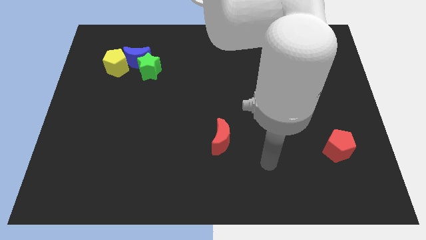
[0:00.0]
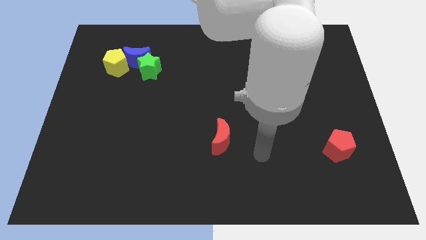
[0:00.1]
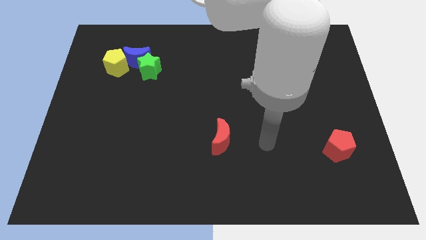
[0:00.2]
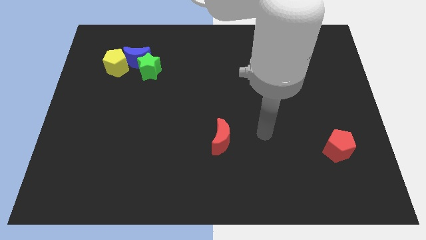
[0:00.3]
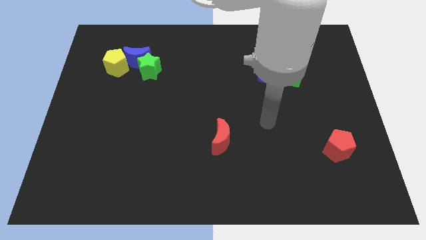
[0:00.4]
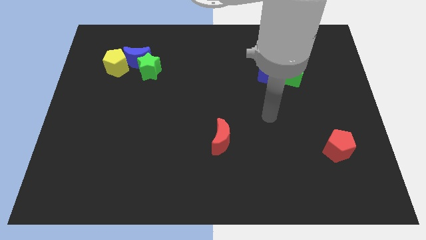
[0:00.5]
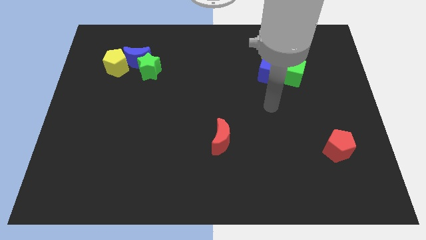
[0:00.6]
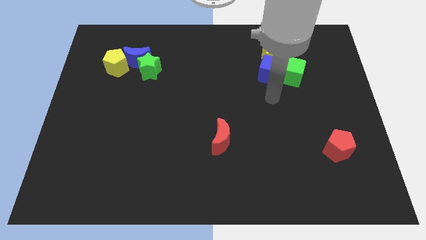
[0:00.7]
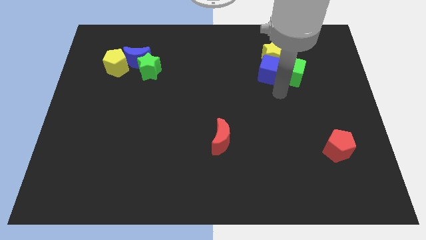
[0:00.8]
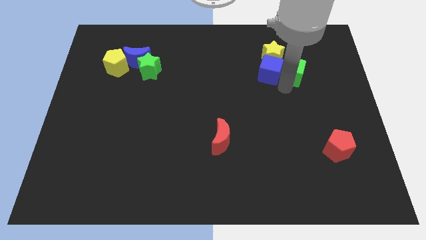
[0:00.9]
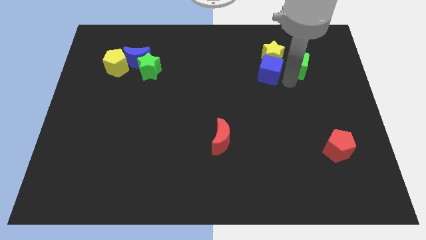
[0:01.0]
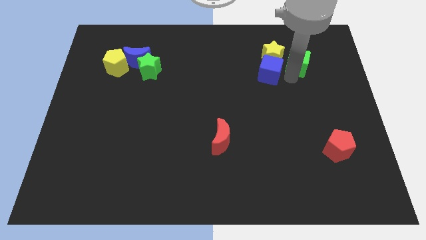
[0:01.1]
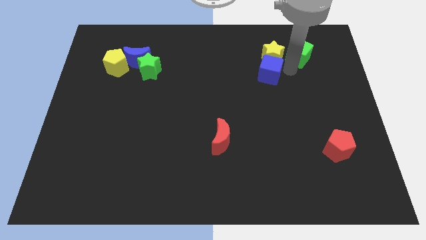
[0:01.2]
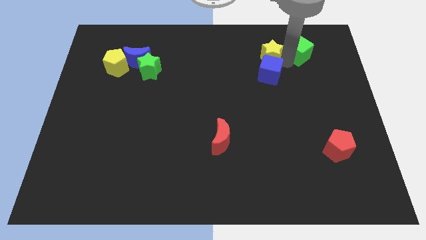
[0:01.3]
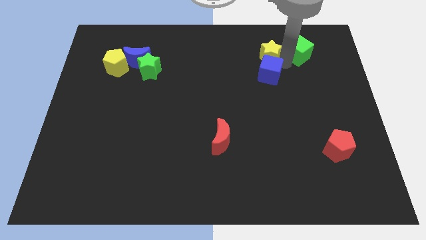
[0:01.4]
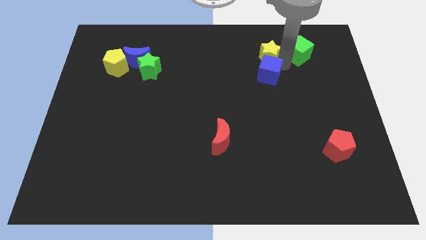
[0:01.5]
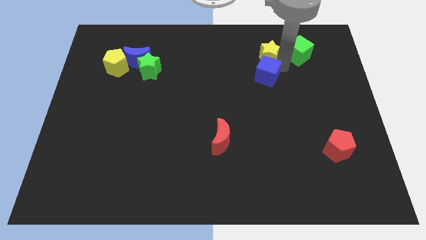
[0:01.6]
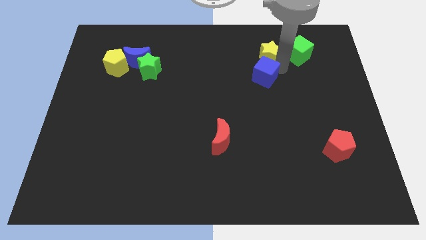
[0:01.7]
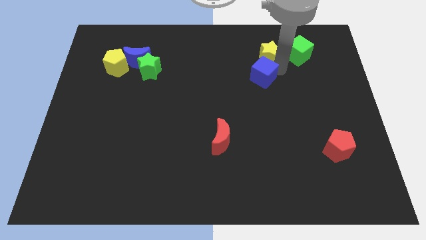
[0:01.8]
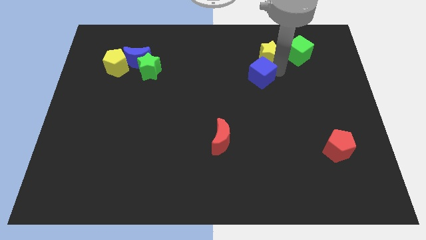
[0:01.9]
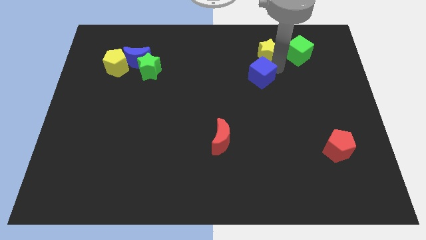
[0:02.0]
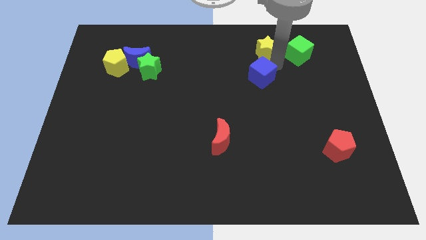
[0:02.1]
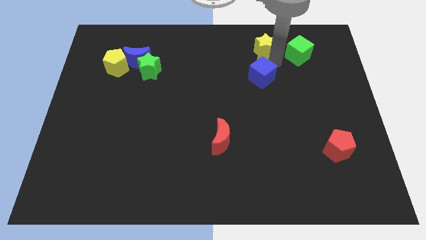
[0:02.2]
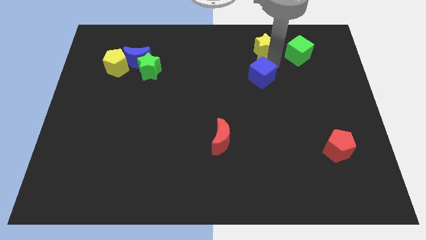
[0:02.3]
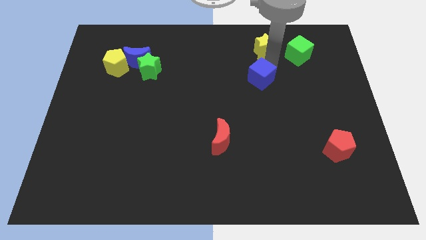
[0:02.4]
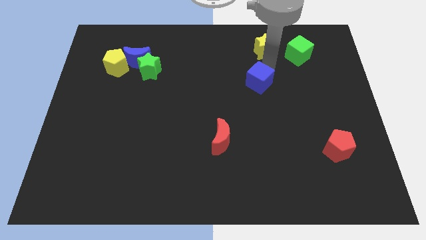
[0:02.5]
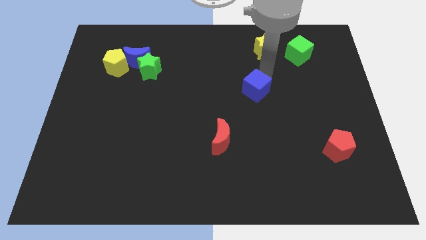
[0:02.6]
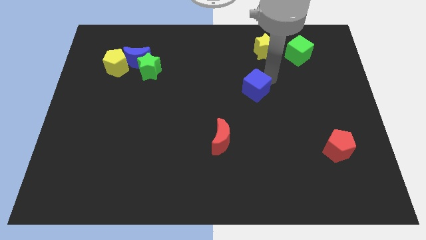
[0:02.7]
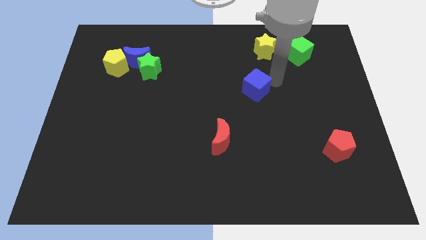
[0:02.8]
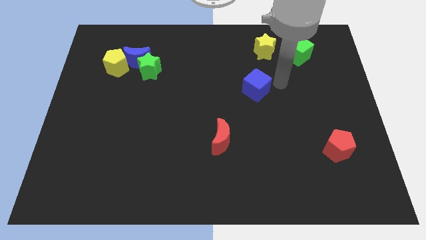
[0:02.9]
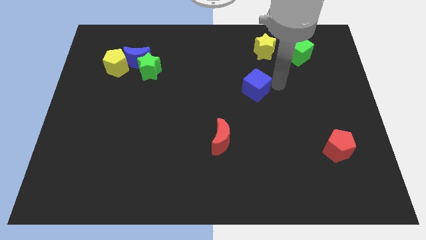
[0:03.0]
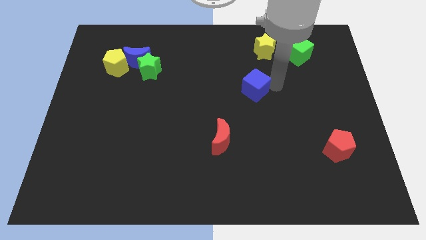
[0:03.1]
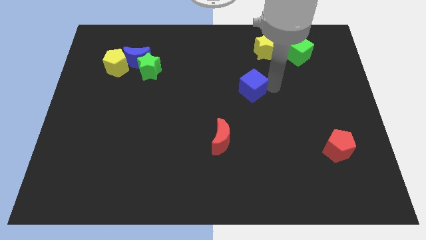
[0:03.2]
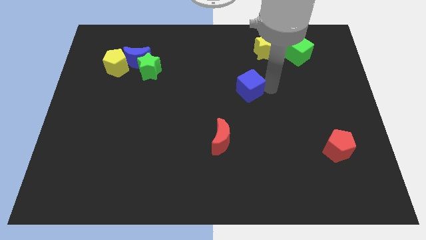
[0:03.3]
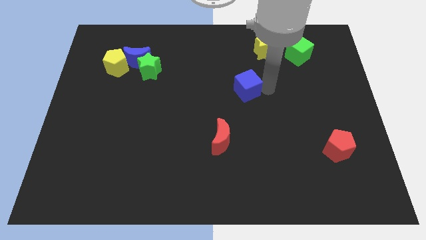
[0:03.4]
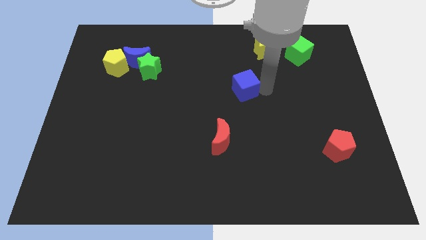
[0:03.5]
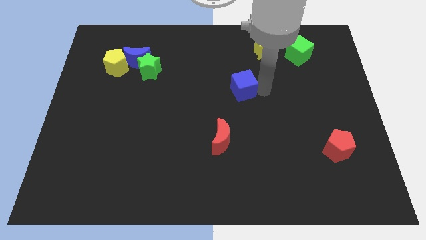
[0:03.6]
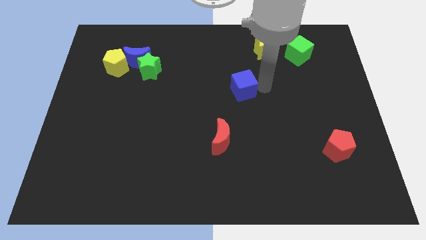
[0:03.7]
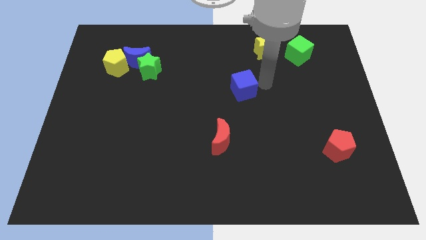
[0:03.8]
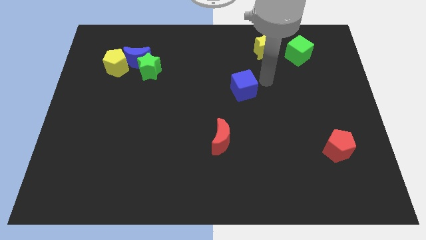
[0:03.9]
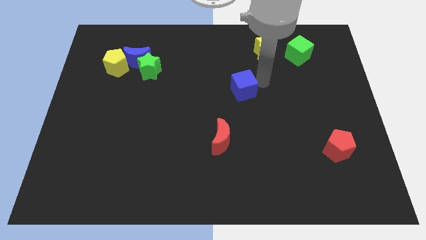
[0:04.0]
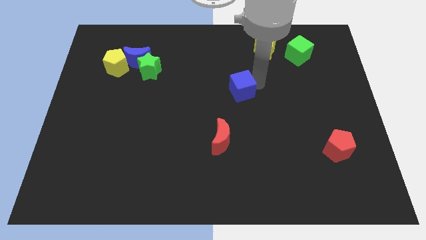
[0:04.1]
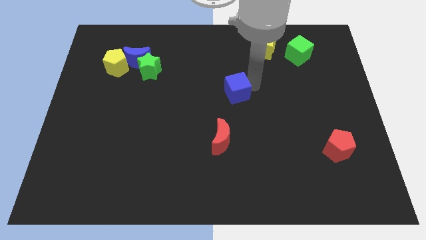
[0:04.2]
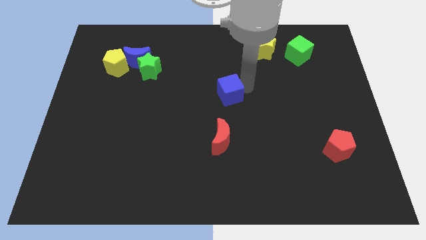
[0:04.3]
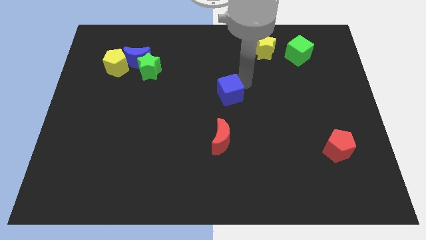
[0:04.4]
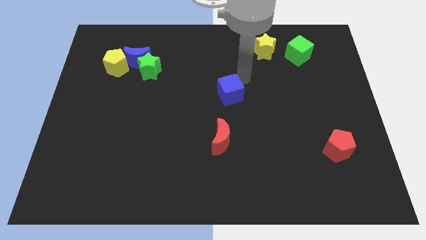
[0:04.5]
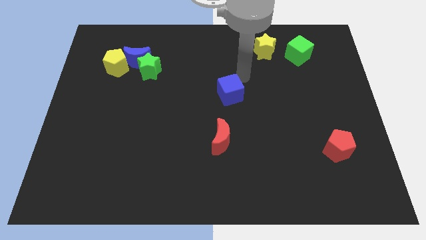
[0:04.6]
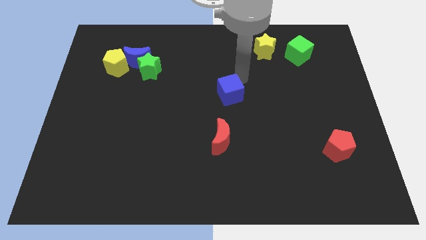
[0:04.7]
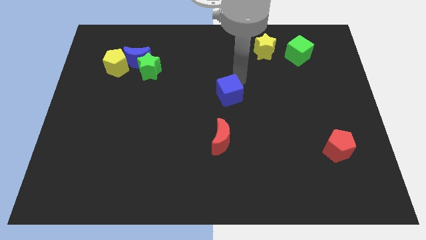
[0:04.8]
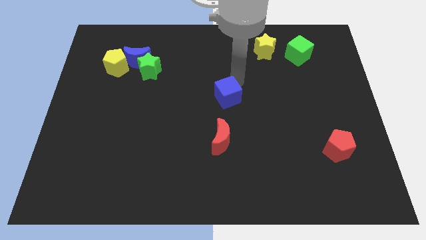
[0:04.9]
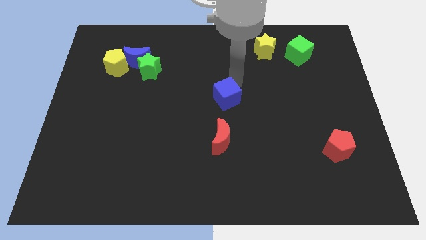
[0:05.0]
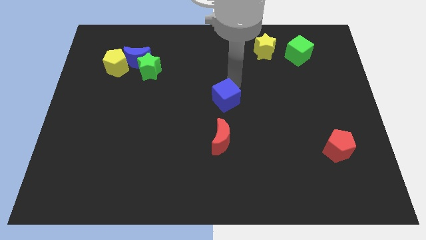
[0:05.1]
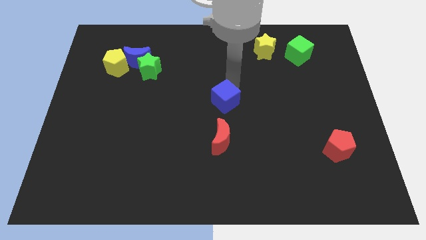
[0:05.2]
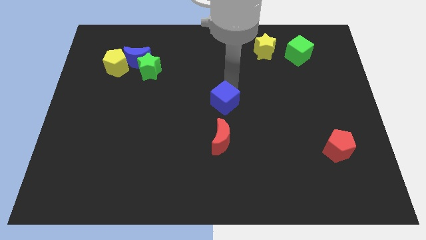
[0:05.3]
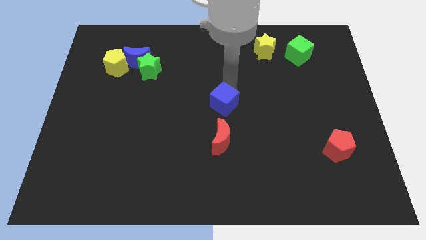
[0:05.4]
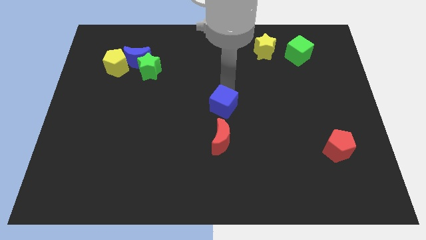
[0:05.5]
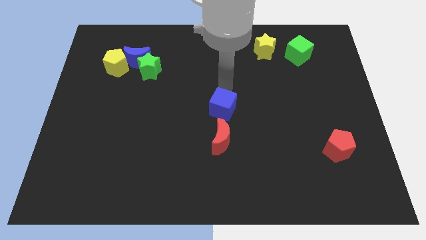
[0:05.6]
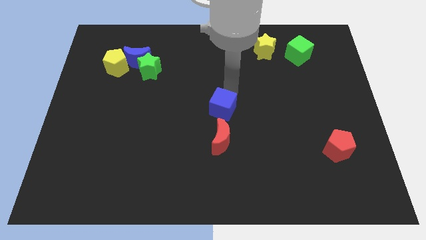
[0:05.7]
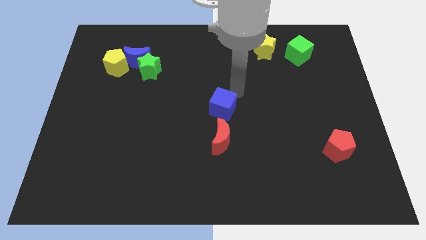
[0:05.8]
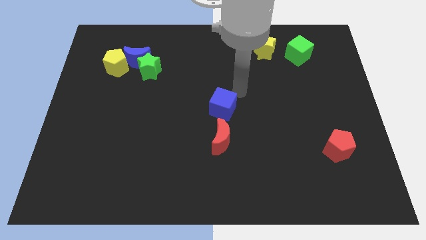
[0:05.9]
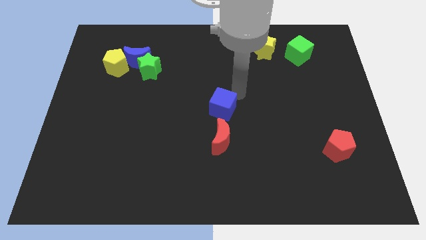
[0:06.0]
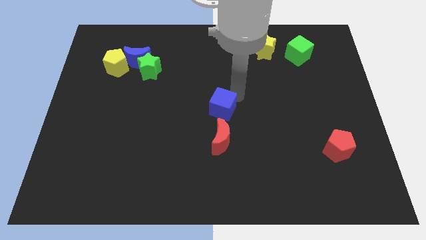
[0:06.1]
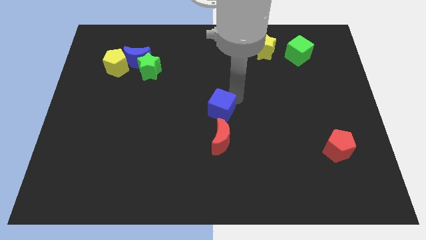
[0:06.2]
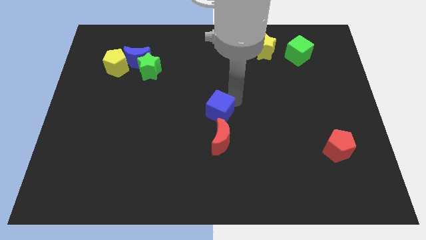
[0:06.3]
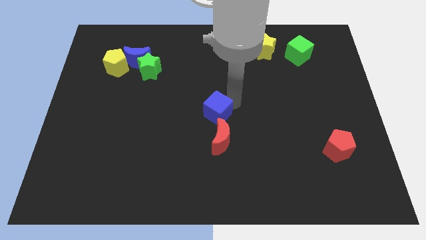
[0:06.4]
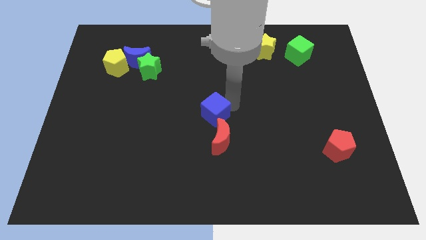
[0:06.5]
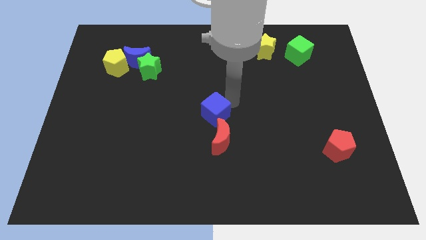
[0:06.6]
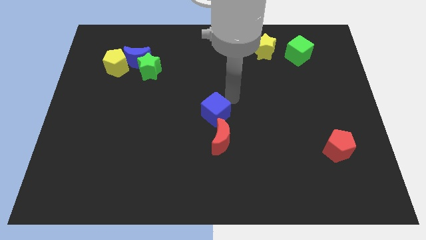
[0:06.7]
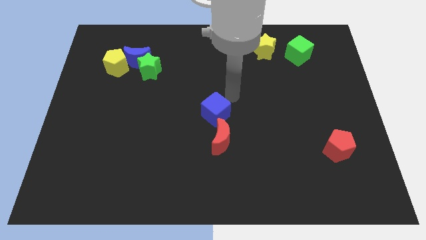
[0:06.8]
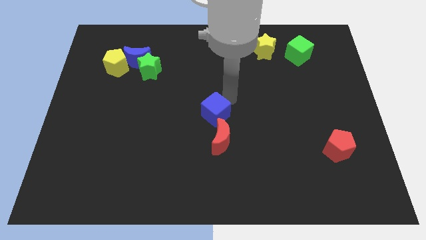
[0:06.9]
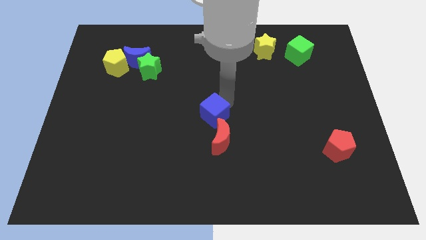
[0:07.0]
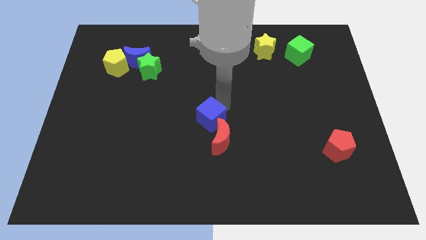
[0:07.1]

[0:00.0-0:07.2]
move the blue cube down and to the left diagonally

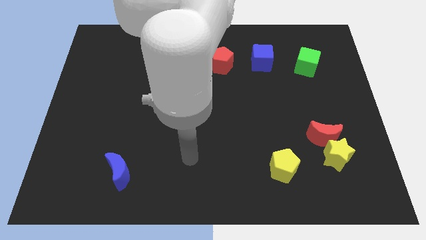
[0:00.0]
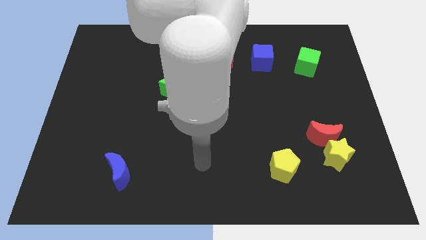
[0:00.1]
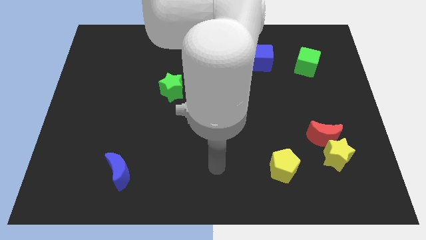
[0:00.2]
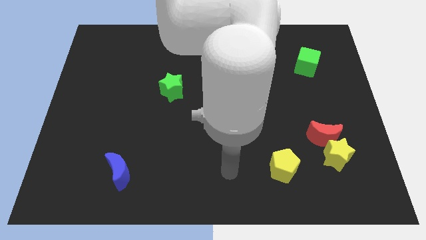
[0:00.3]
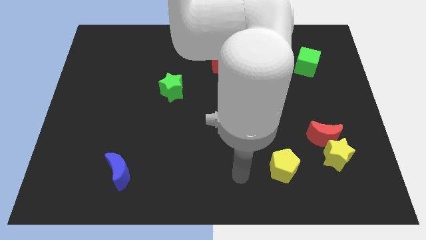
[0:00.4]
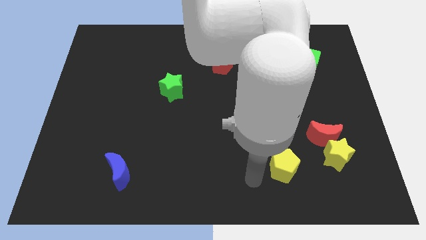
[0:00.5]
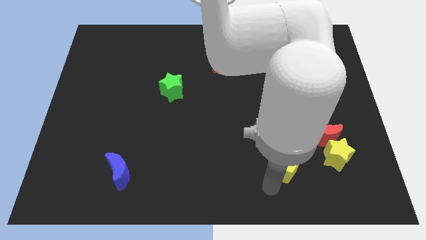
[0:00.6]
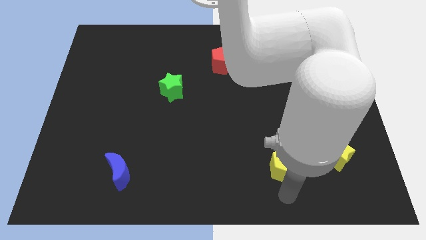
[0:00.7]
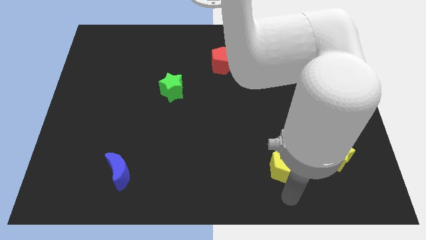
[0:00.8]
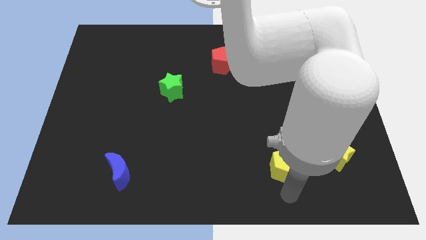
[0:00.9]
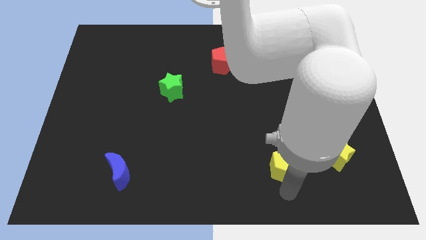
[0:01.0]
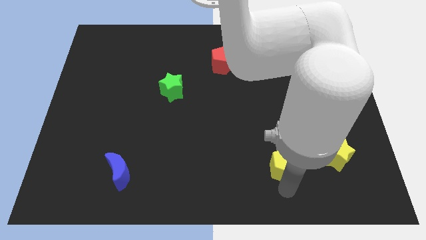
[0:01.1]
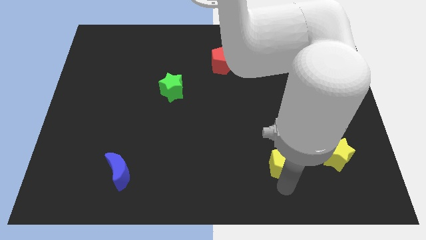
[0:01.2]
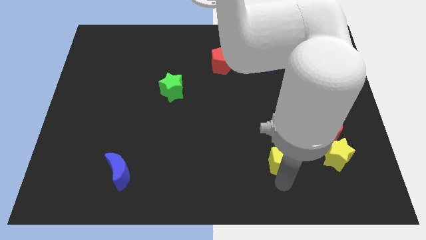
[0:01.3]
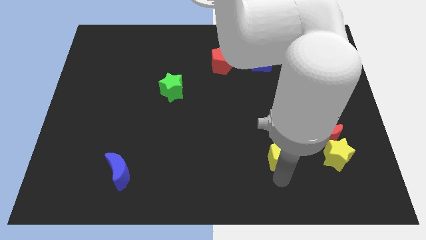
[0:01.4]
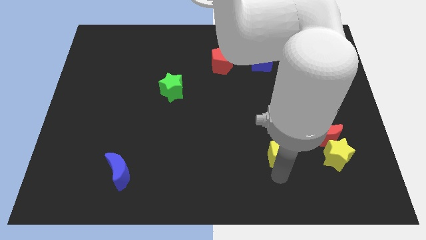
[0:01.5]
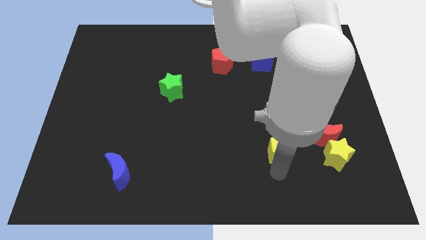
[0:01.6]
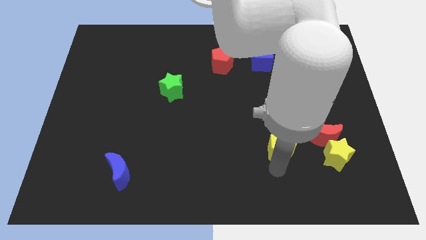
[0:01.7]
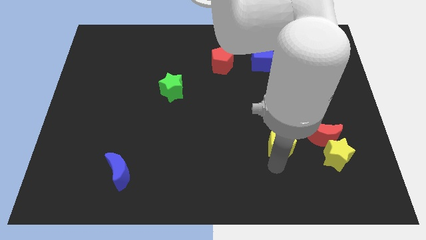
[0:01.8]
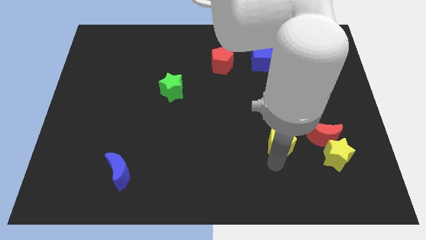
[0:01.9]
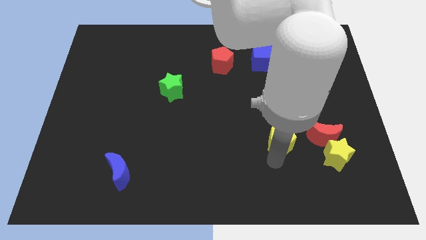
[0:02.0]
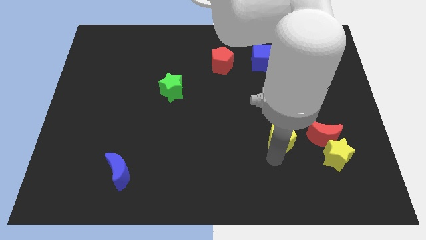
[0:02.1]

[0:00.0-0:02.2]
move the yellow pentagon up a little
